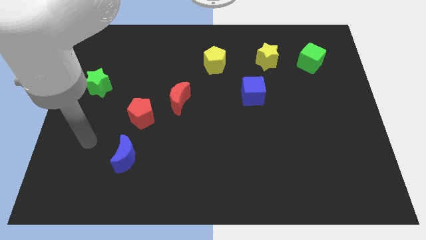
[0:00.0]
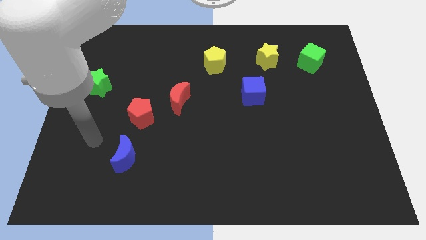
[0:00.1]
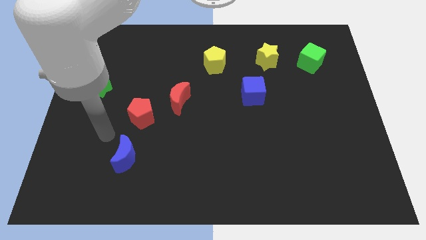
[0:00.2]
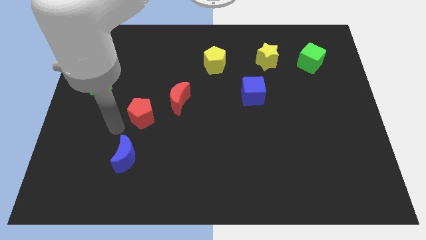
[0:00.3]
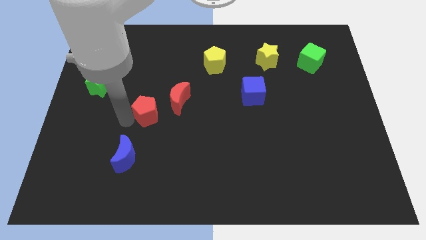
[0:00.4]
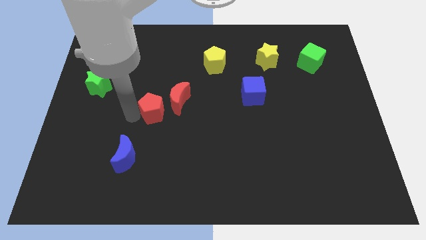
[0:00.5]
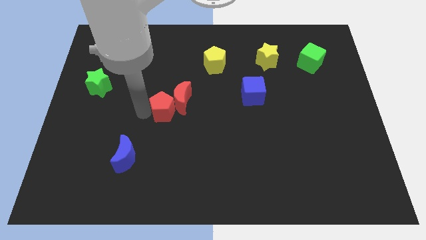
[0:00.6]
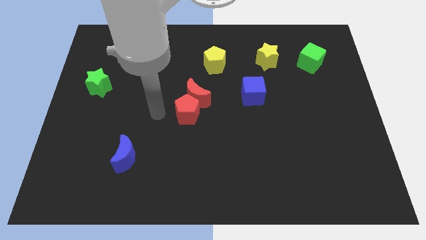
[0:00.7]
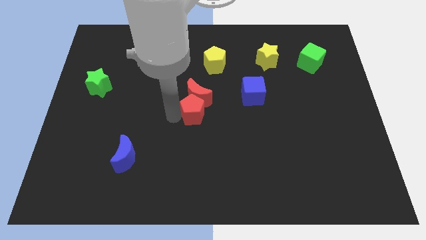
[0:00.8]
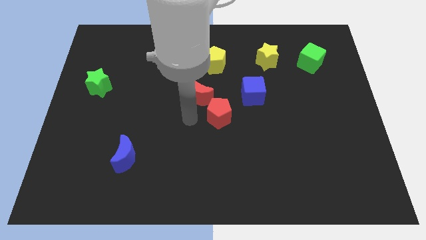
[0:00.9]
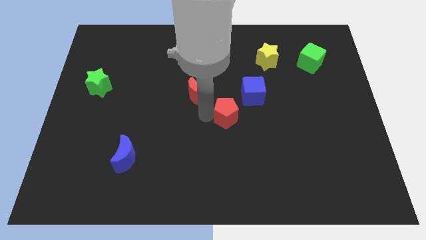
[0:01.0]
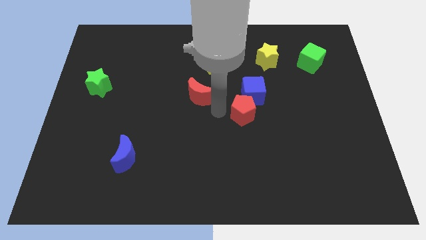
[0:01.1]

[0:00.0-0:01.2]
pull the red moon apart from the red pentagon

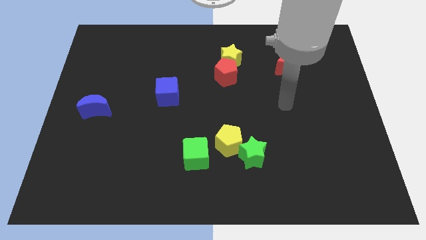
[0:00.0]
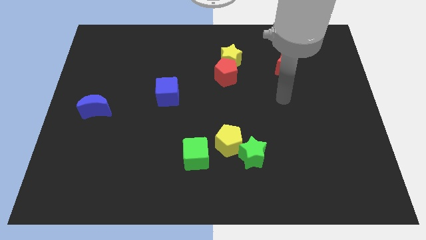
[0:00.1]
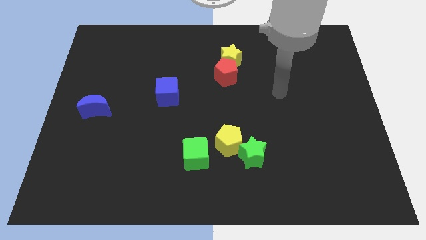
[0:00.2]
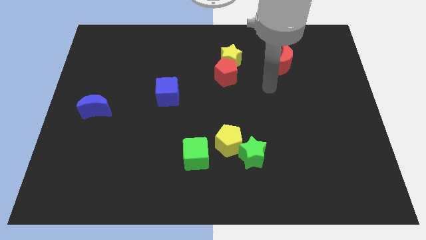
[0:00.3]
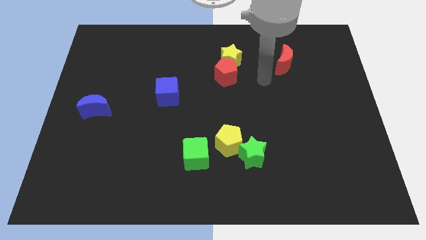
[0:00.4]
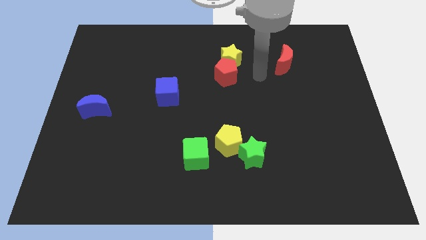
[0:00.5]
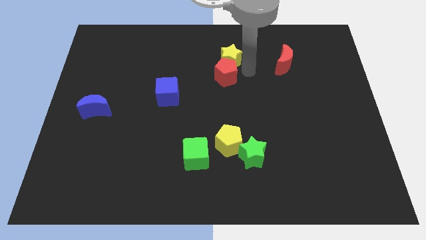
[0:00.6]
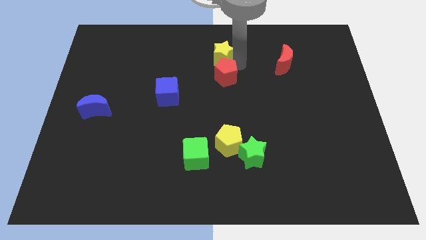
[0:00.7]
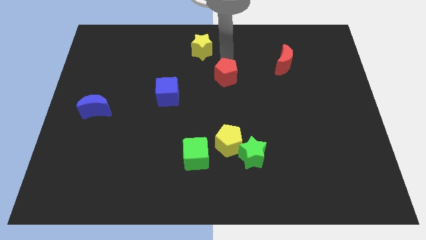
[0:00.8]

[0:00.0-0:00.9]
pull the red pentagon apart from the yellow star

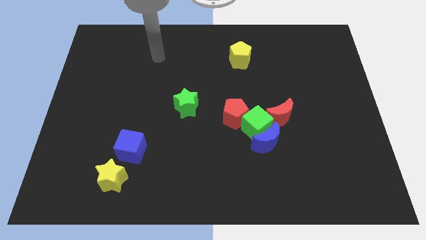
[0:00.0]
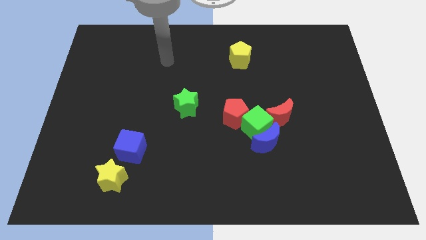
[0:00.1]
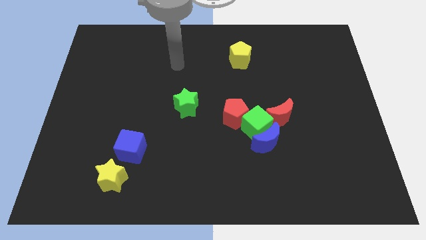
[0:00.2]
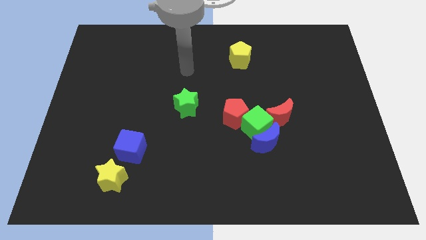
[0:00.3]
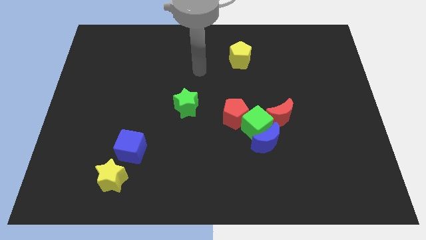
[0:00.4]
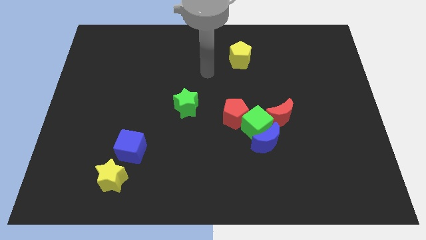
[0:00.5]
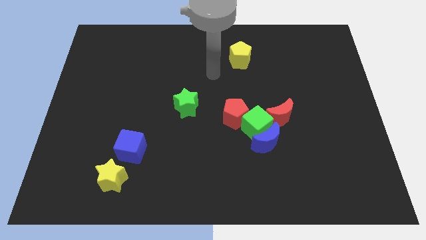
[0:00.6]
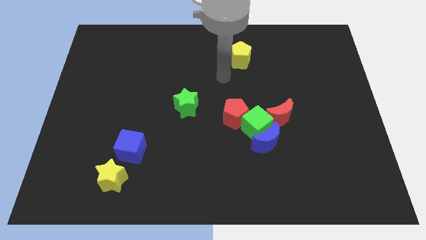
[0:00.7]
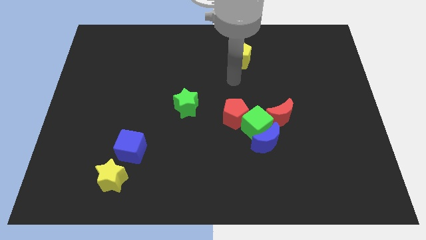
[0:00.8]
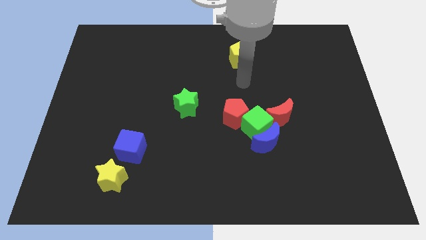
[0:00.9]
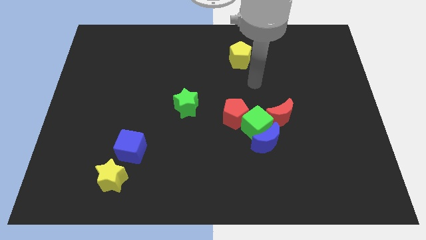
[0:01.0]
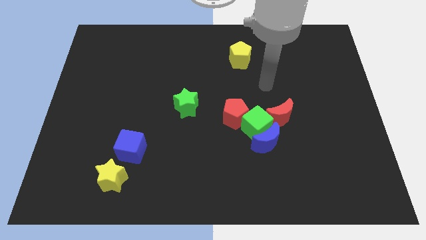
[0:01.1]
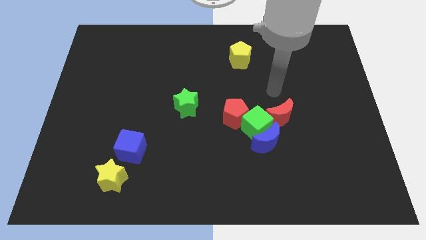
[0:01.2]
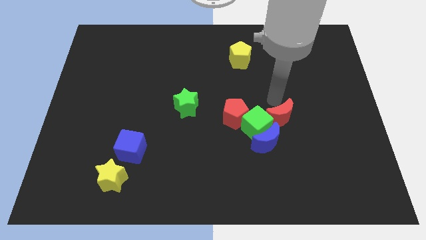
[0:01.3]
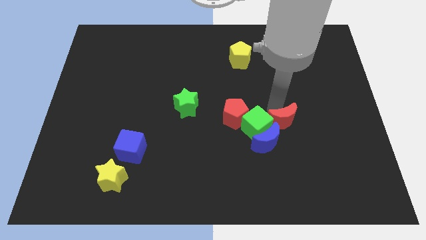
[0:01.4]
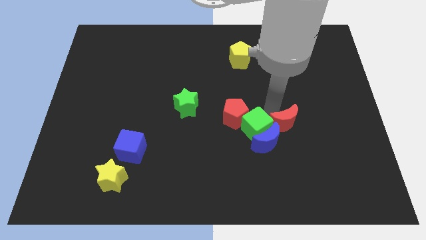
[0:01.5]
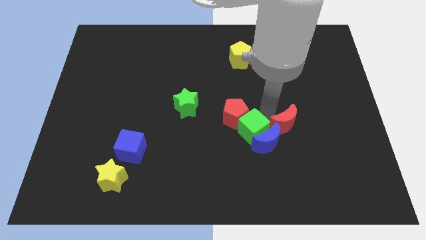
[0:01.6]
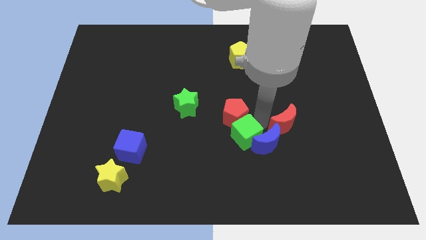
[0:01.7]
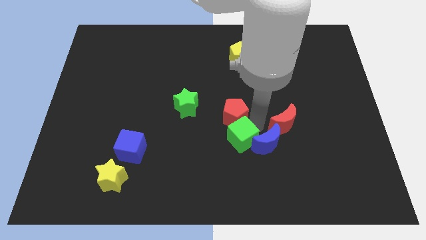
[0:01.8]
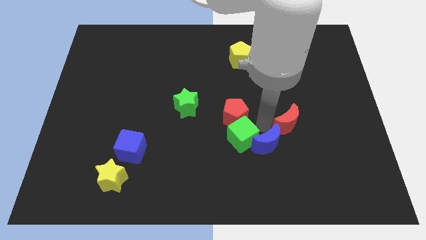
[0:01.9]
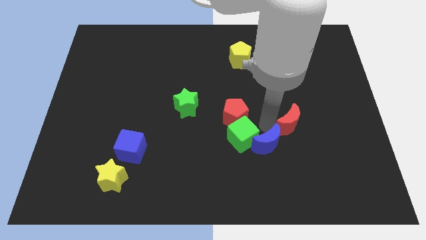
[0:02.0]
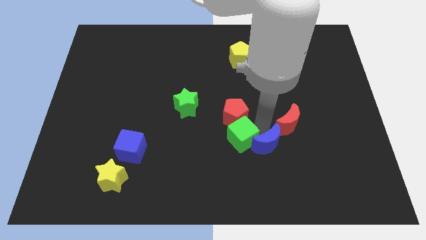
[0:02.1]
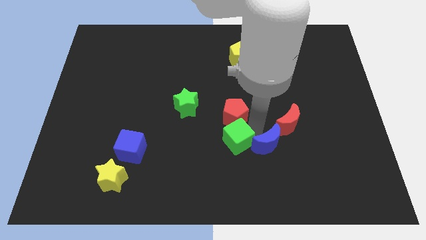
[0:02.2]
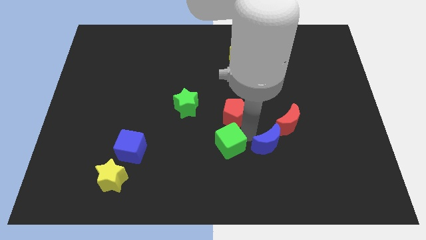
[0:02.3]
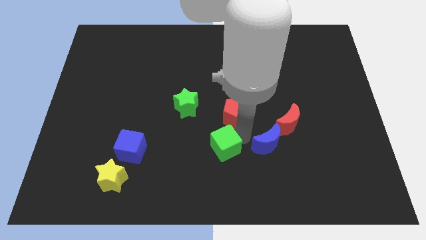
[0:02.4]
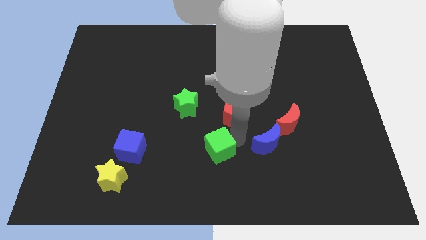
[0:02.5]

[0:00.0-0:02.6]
move the green cube away from the group

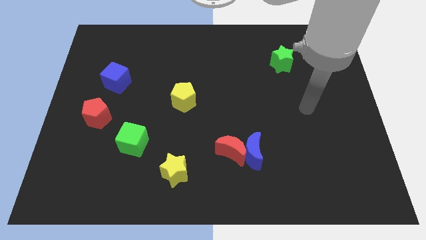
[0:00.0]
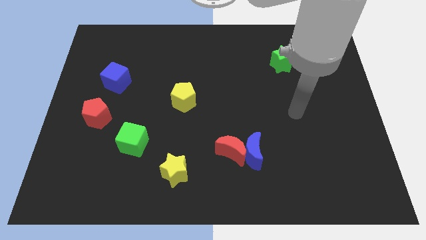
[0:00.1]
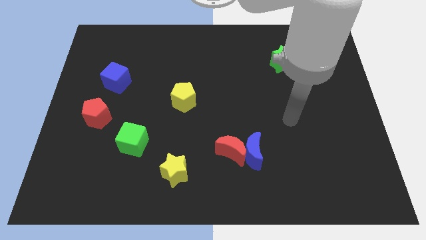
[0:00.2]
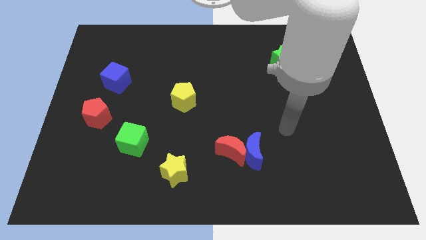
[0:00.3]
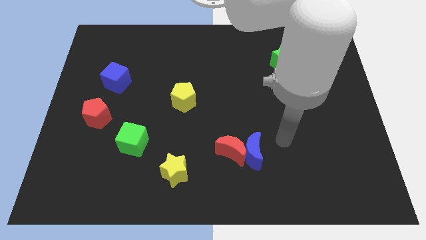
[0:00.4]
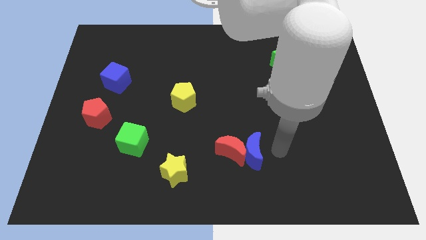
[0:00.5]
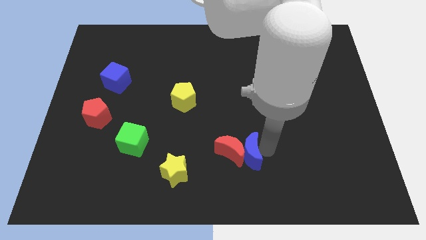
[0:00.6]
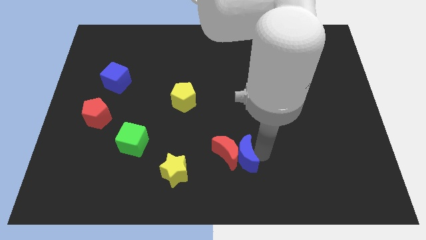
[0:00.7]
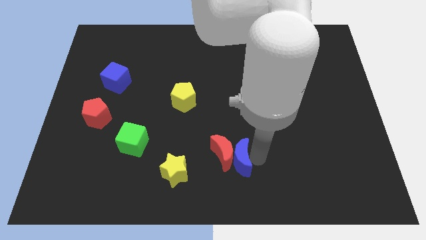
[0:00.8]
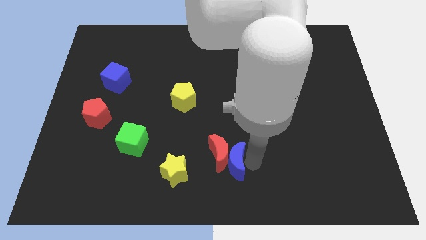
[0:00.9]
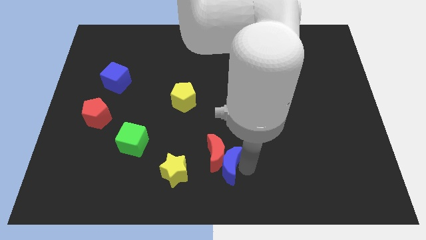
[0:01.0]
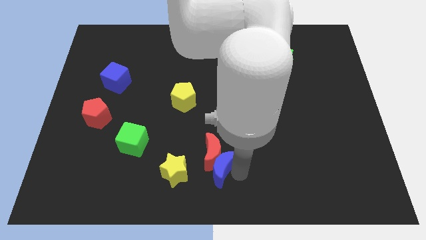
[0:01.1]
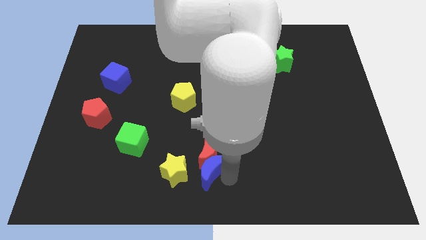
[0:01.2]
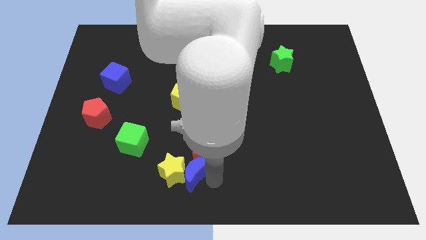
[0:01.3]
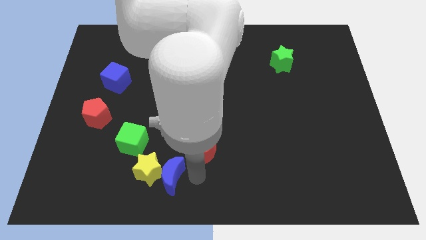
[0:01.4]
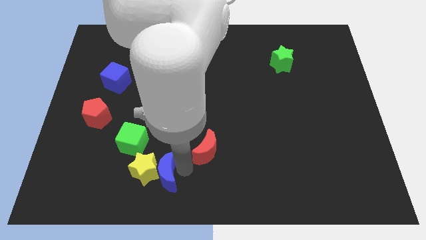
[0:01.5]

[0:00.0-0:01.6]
pull the red moon apart from the blue moon

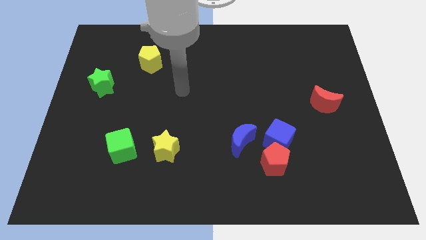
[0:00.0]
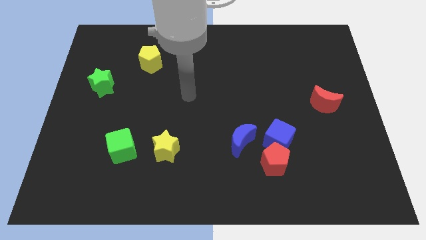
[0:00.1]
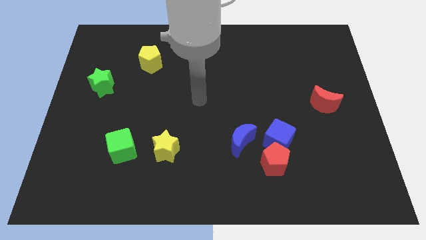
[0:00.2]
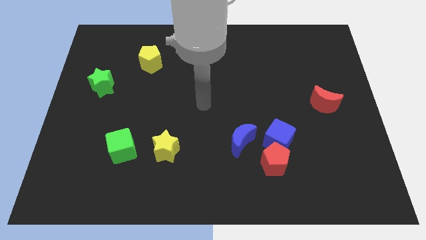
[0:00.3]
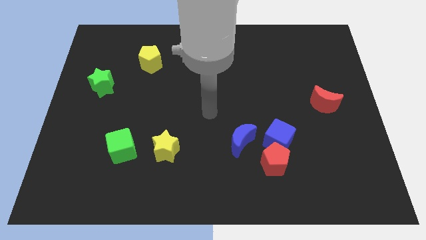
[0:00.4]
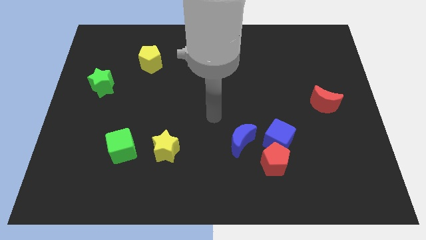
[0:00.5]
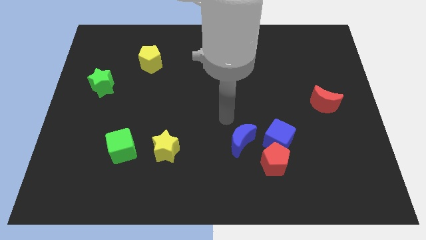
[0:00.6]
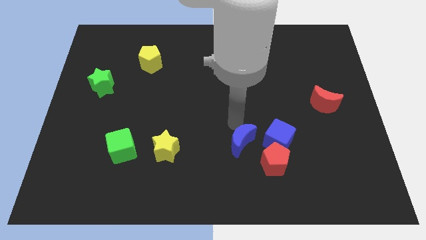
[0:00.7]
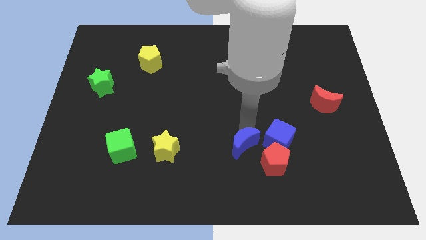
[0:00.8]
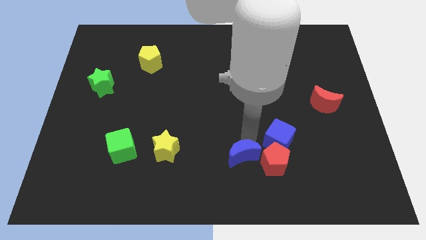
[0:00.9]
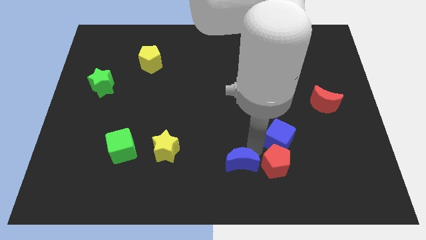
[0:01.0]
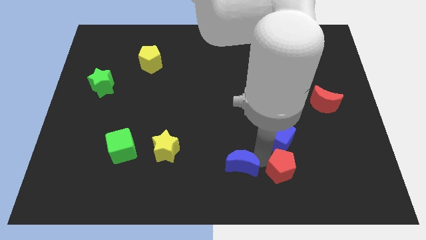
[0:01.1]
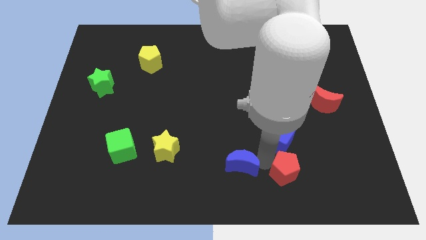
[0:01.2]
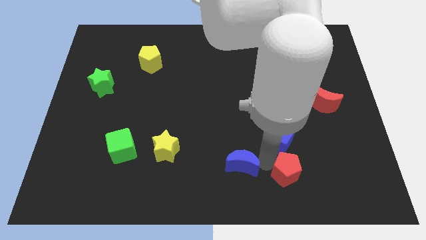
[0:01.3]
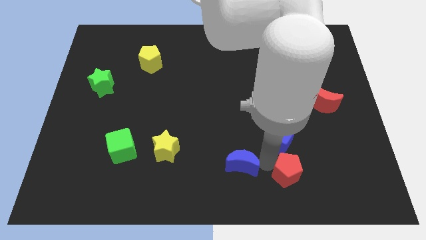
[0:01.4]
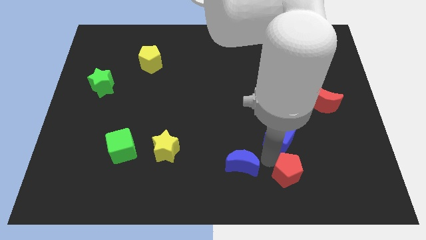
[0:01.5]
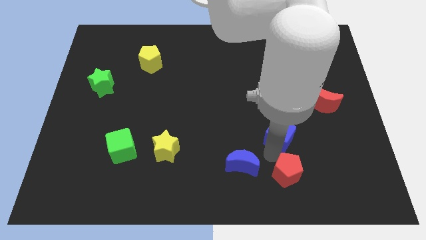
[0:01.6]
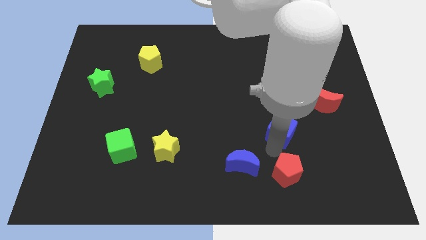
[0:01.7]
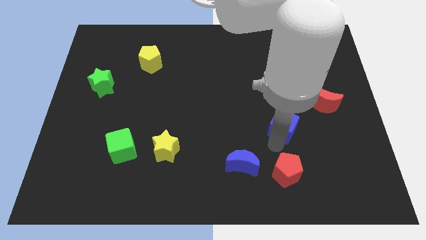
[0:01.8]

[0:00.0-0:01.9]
pull the blue cube apart from the red pentagon and blue moon

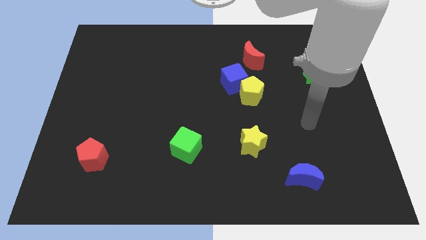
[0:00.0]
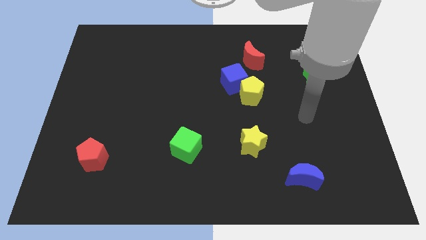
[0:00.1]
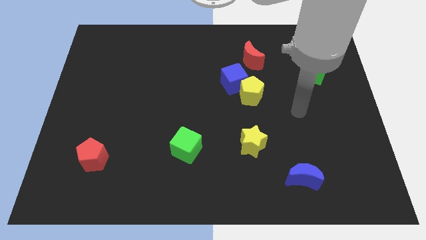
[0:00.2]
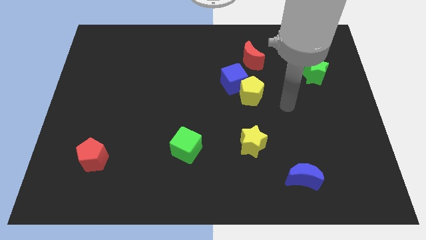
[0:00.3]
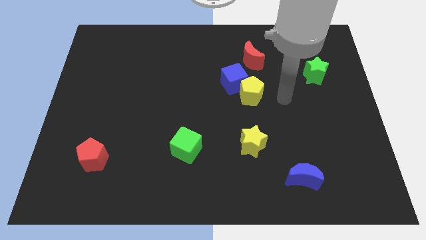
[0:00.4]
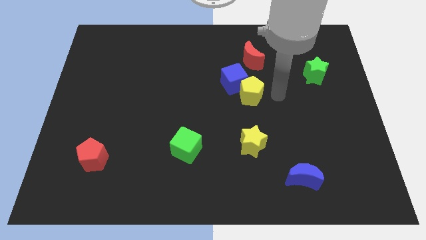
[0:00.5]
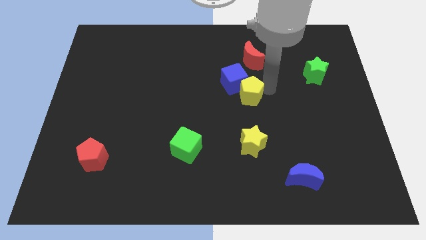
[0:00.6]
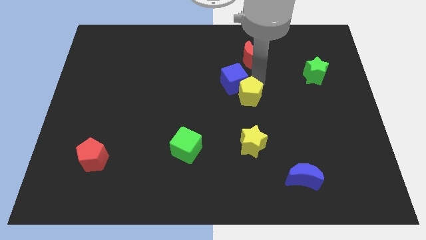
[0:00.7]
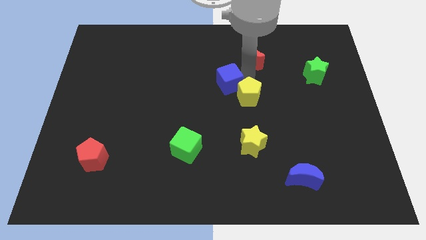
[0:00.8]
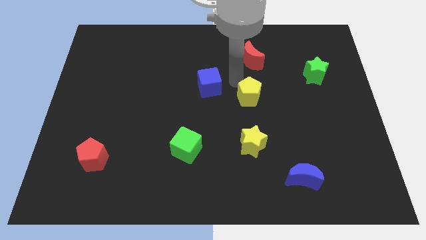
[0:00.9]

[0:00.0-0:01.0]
separate the yellow pentagon from the blue cube

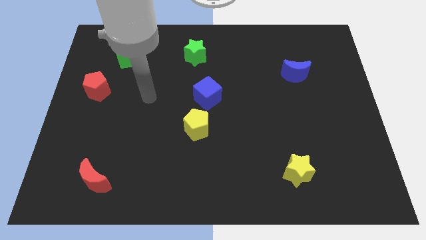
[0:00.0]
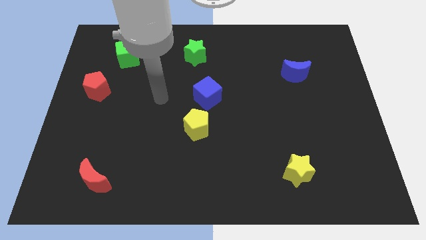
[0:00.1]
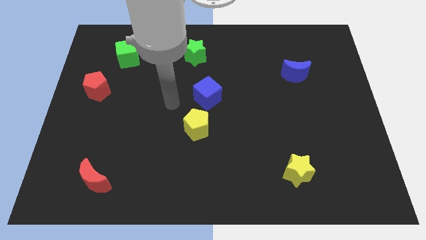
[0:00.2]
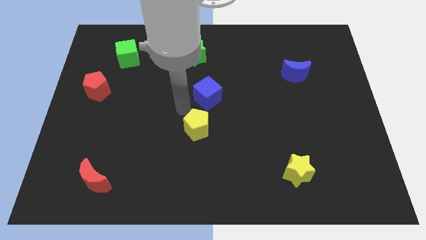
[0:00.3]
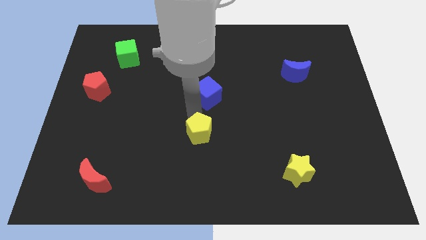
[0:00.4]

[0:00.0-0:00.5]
separate the blue cube from the yellow pentagon
